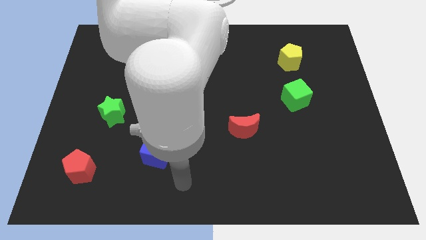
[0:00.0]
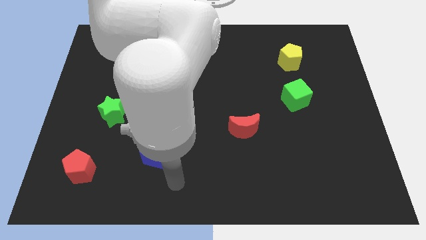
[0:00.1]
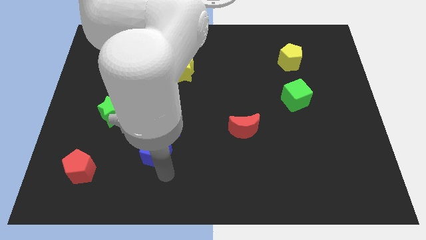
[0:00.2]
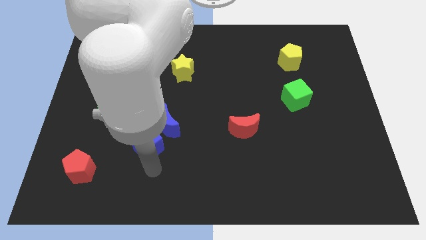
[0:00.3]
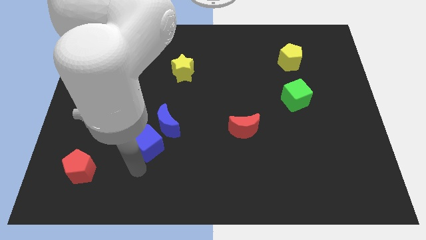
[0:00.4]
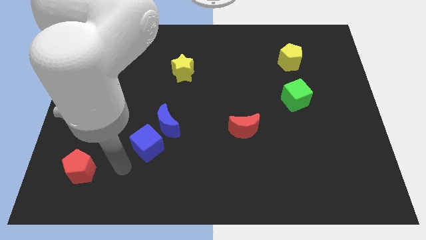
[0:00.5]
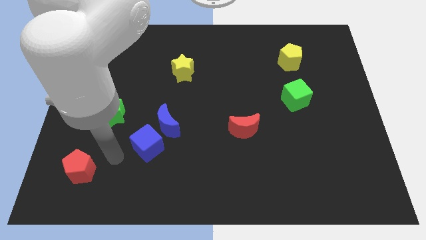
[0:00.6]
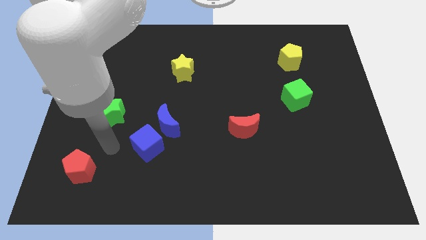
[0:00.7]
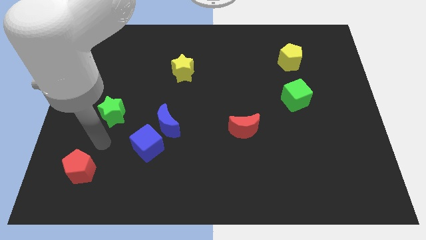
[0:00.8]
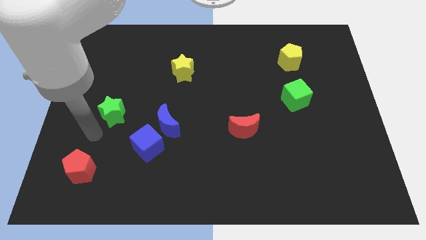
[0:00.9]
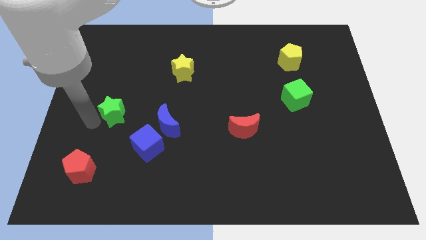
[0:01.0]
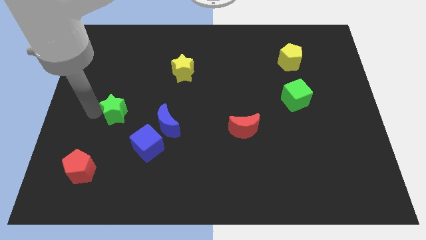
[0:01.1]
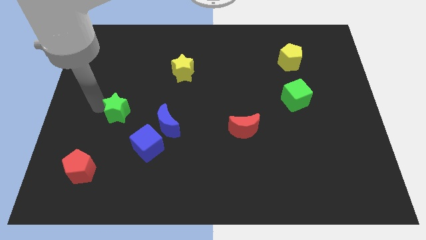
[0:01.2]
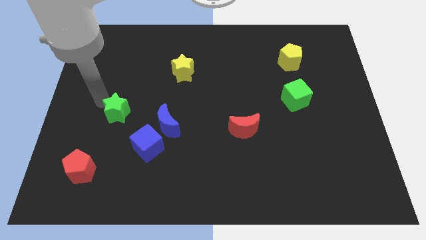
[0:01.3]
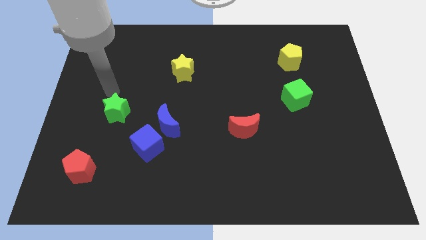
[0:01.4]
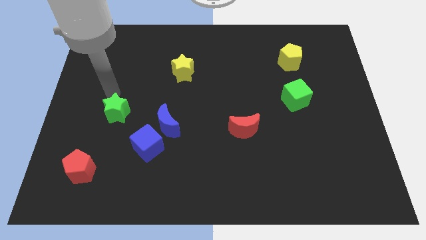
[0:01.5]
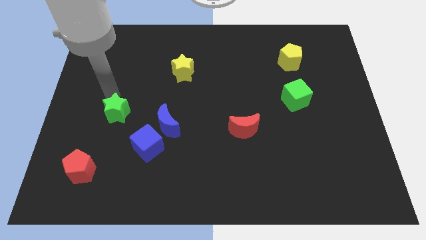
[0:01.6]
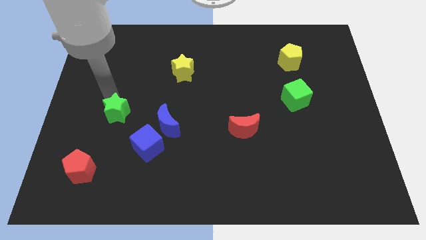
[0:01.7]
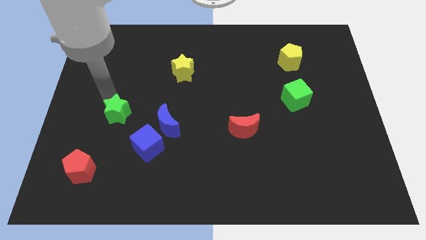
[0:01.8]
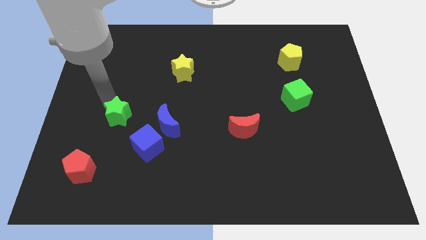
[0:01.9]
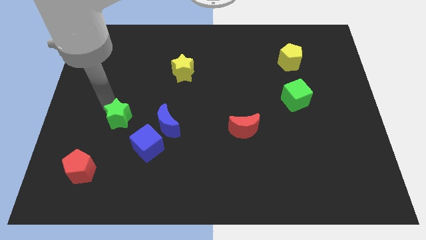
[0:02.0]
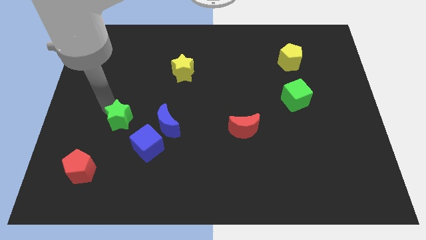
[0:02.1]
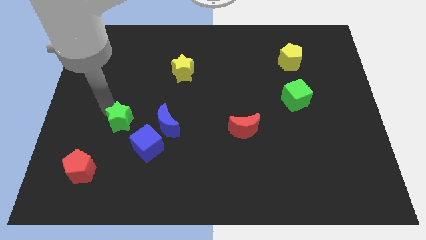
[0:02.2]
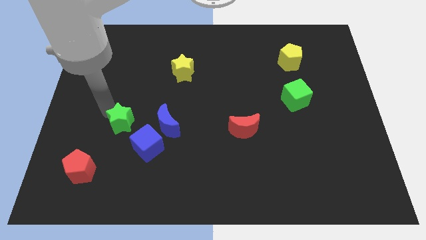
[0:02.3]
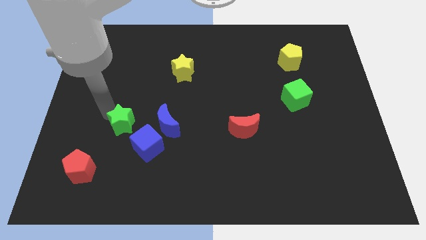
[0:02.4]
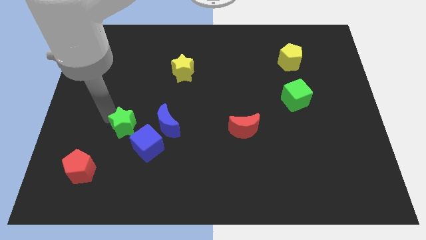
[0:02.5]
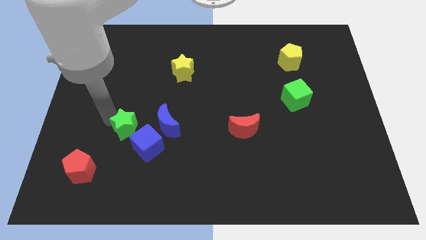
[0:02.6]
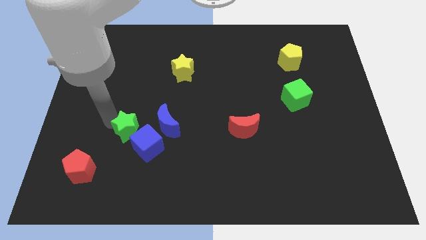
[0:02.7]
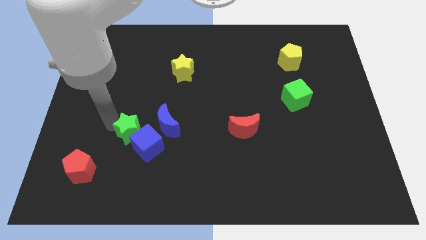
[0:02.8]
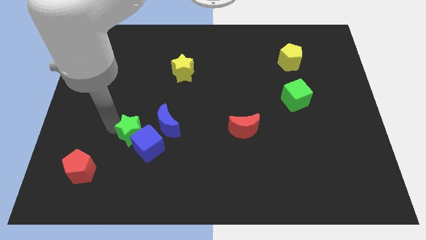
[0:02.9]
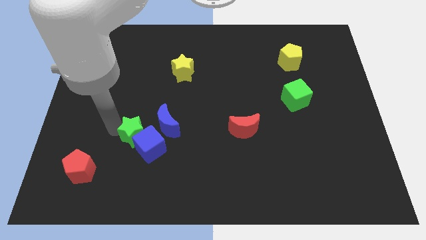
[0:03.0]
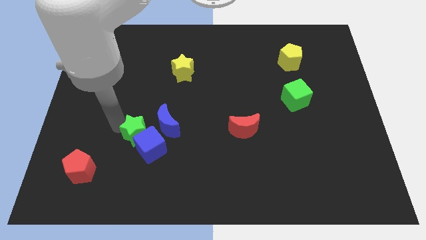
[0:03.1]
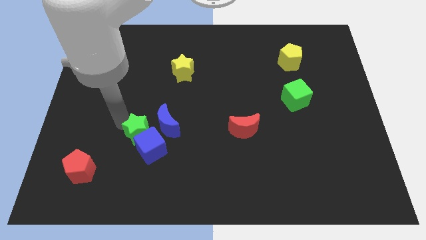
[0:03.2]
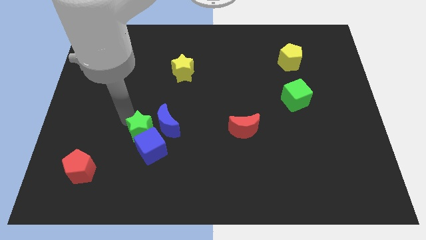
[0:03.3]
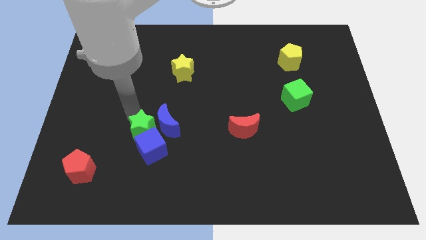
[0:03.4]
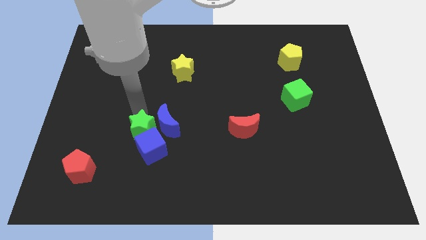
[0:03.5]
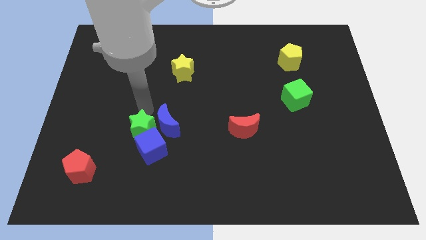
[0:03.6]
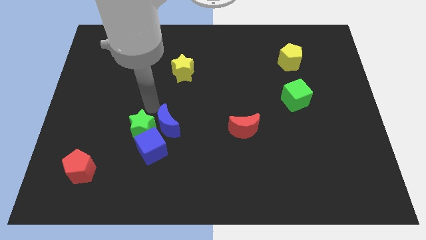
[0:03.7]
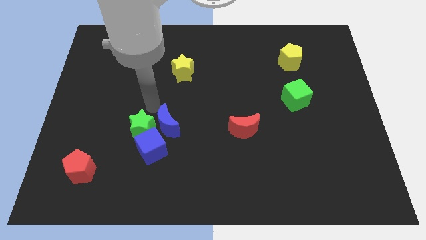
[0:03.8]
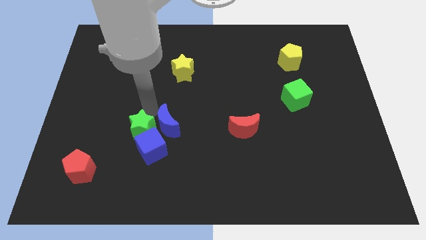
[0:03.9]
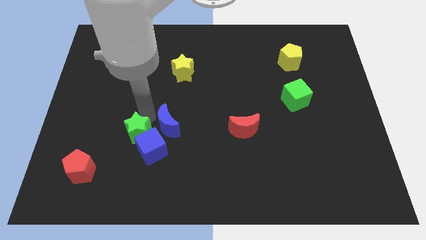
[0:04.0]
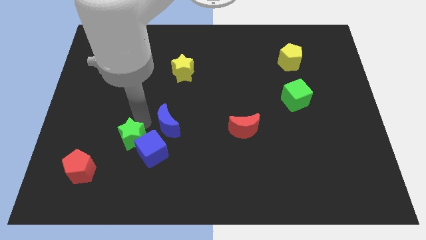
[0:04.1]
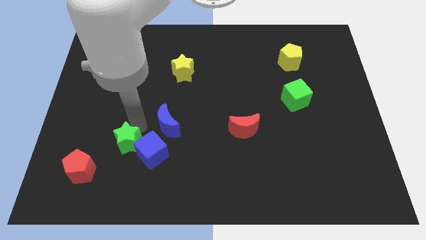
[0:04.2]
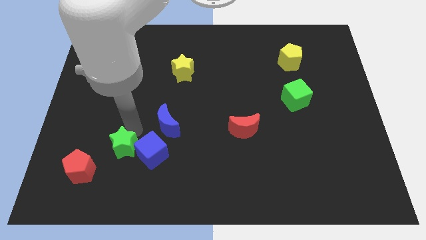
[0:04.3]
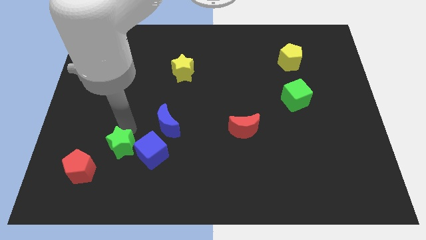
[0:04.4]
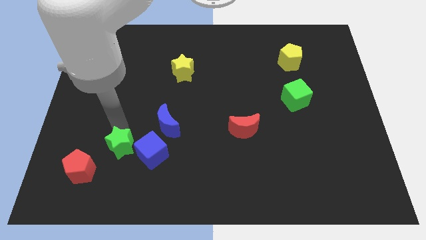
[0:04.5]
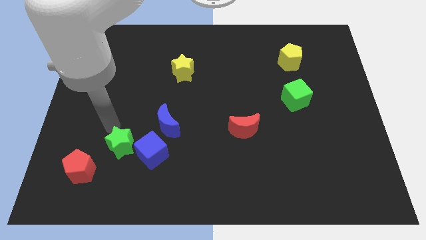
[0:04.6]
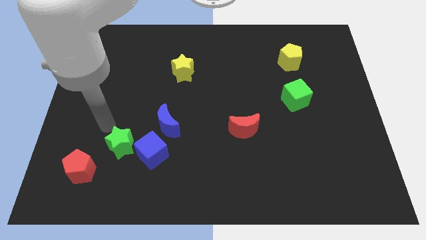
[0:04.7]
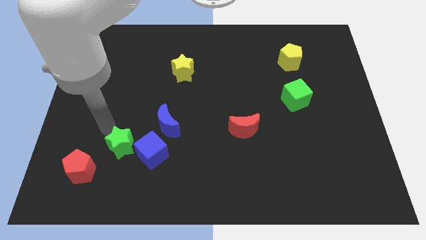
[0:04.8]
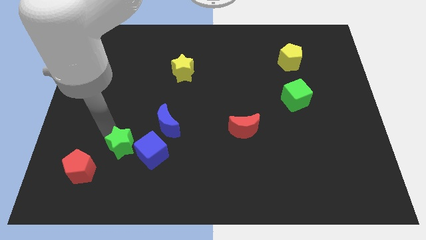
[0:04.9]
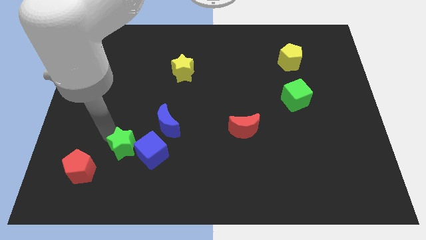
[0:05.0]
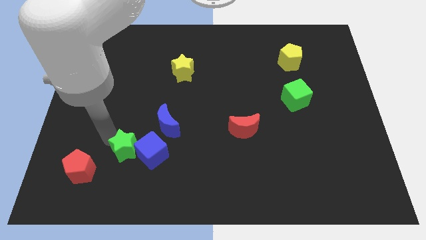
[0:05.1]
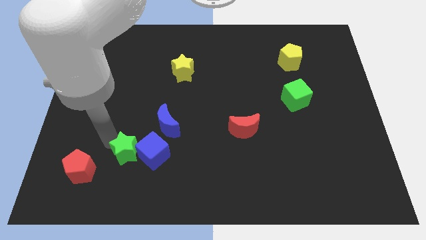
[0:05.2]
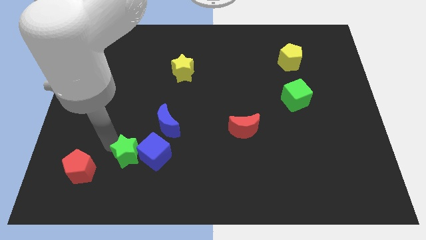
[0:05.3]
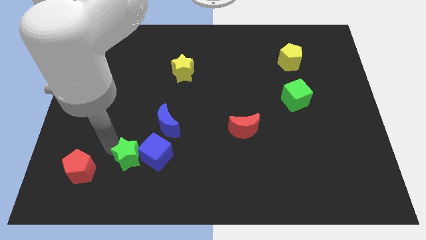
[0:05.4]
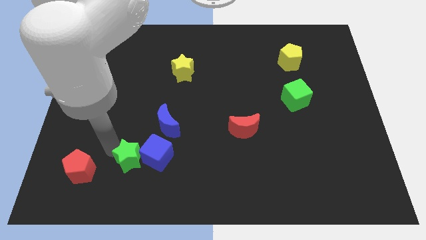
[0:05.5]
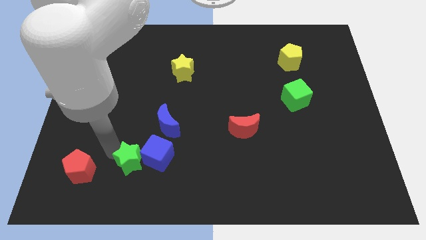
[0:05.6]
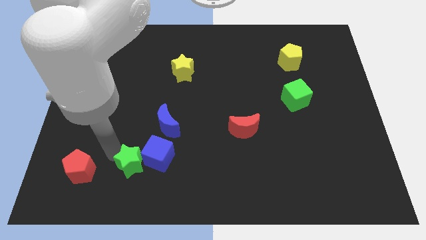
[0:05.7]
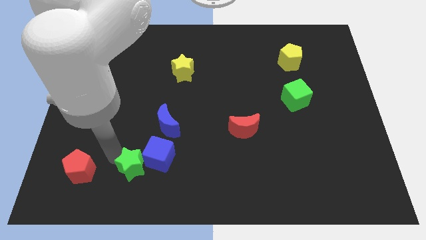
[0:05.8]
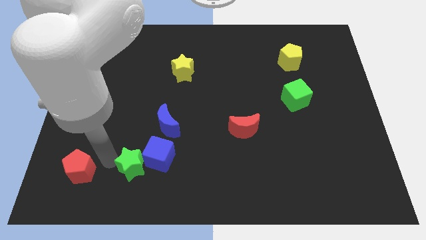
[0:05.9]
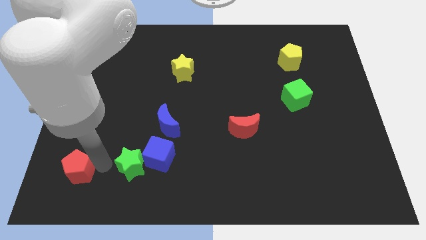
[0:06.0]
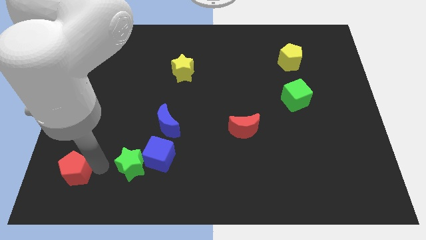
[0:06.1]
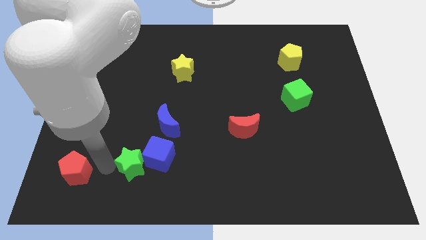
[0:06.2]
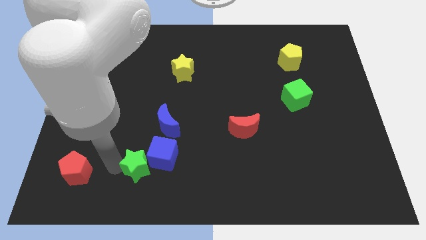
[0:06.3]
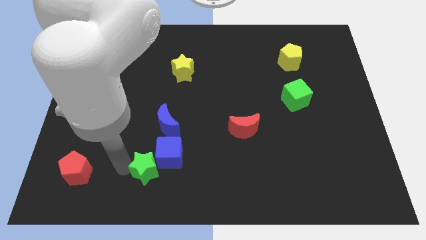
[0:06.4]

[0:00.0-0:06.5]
slide the green star below the blue moon

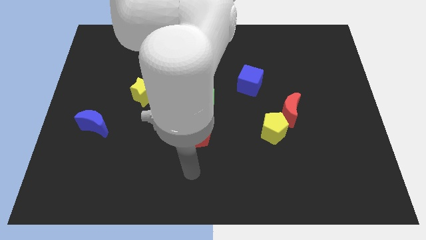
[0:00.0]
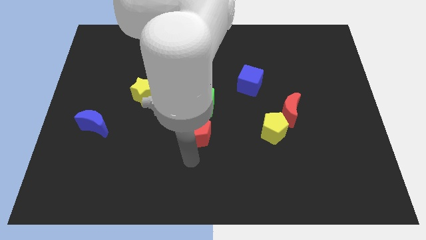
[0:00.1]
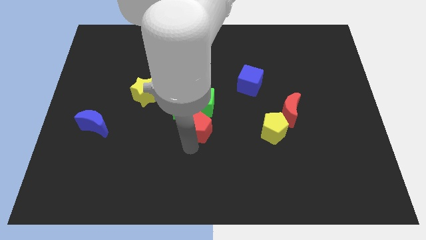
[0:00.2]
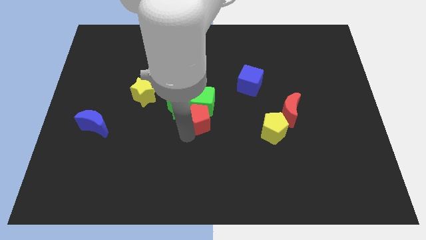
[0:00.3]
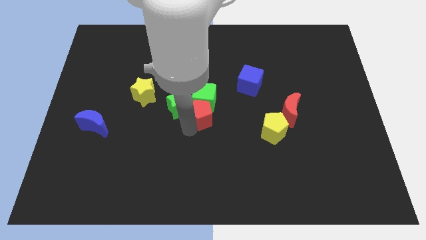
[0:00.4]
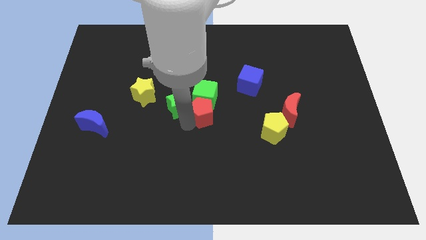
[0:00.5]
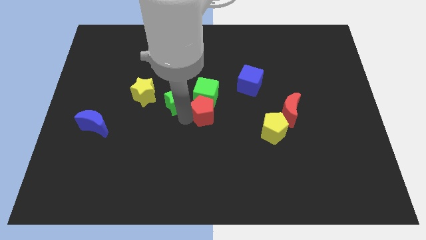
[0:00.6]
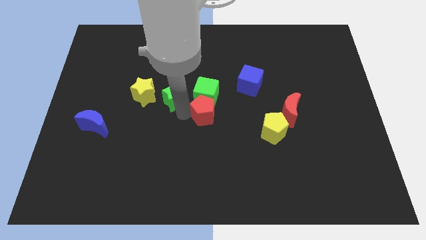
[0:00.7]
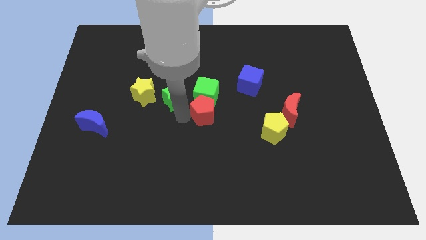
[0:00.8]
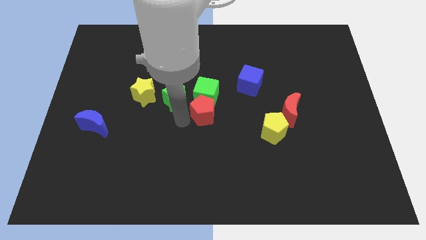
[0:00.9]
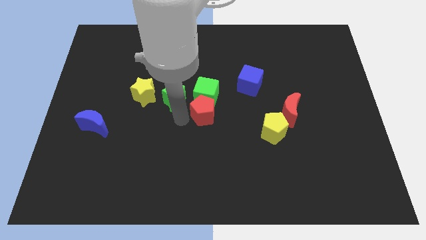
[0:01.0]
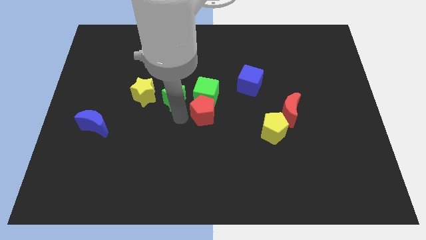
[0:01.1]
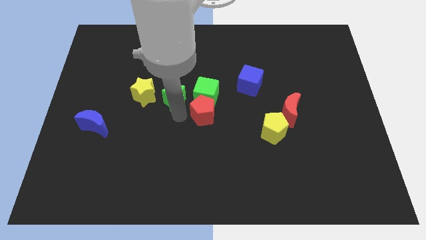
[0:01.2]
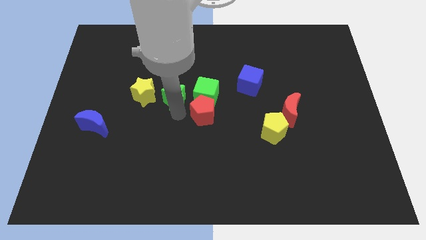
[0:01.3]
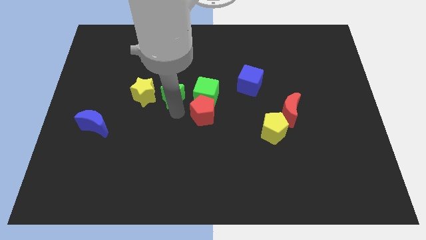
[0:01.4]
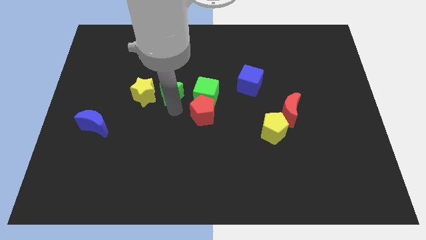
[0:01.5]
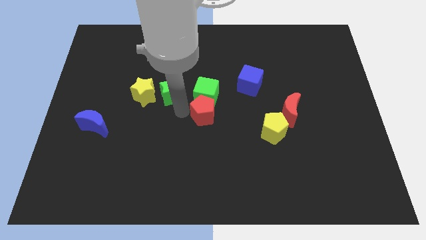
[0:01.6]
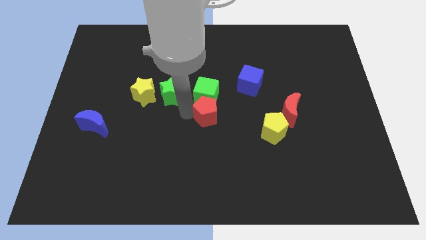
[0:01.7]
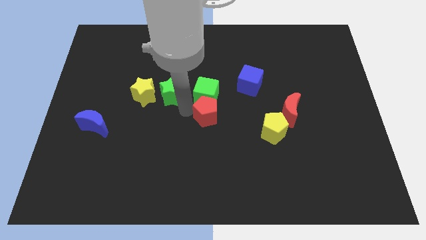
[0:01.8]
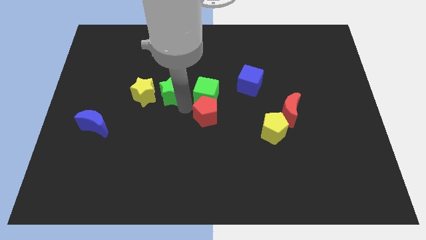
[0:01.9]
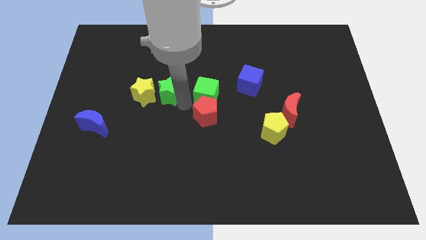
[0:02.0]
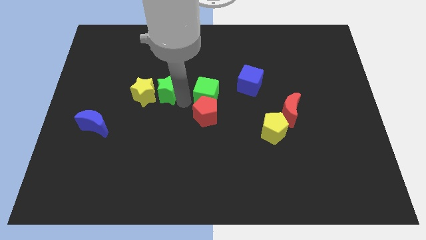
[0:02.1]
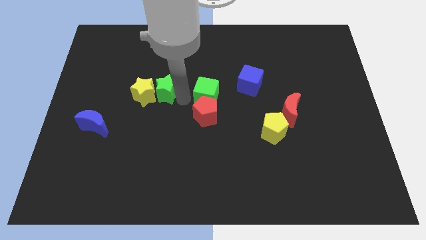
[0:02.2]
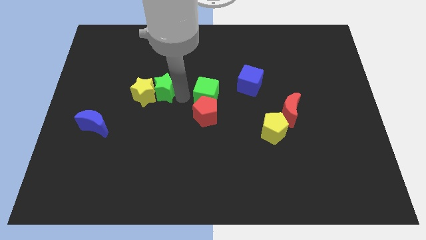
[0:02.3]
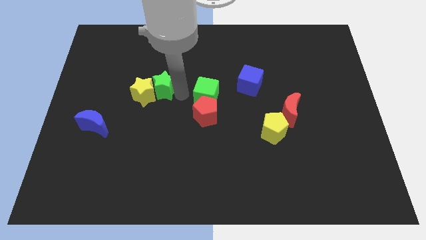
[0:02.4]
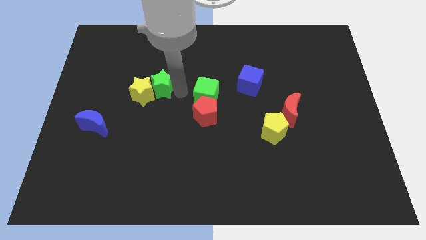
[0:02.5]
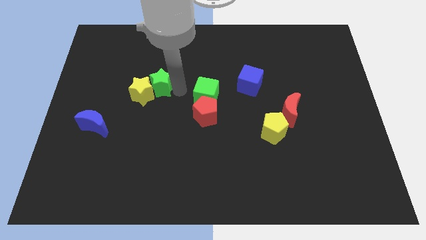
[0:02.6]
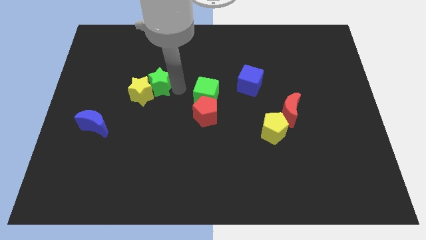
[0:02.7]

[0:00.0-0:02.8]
move the green star above the yellow star
